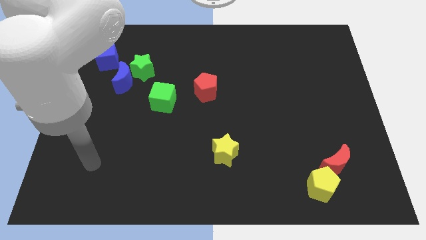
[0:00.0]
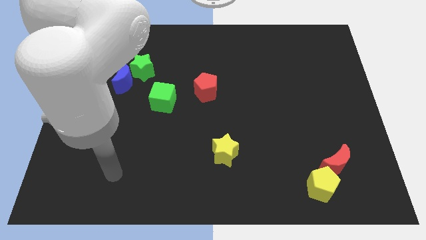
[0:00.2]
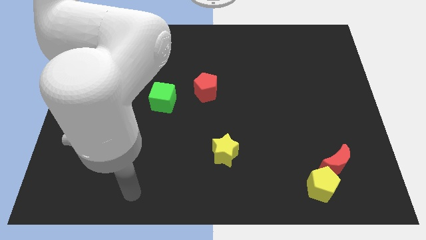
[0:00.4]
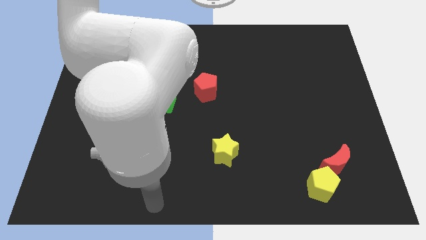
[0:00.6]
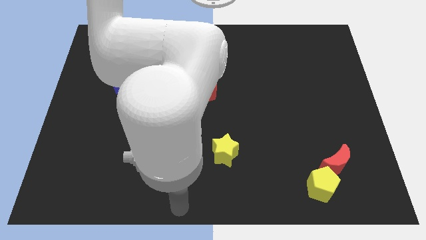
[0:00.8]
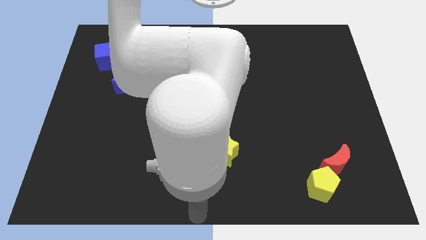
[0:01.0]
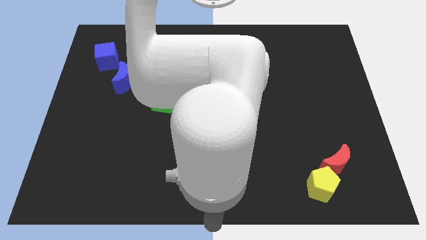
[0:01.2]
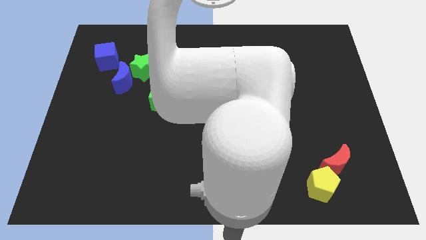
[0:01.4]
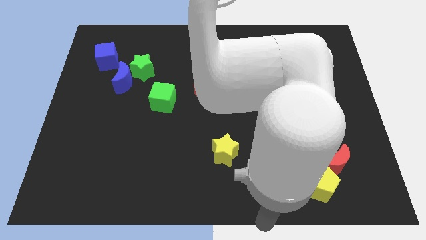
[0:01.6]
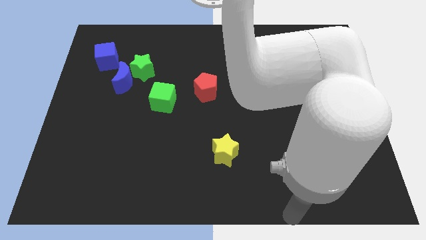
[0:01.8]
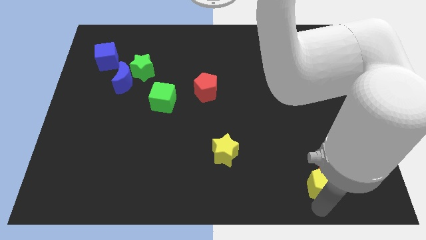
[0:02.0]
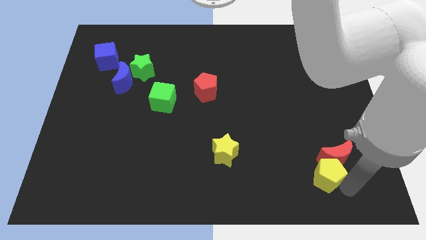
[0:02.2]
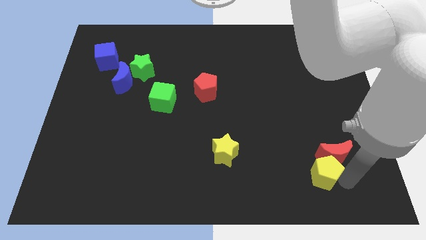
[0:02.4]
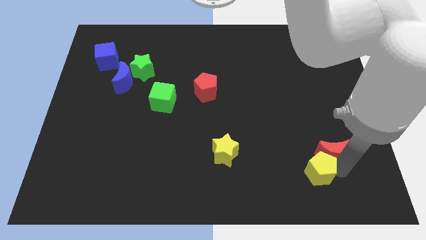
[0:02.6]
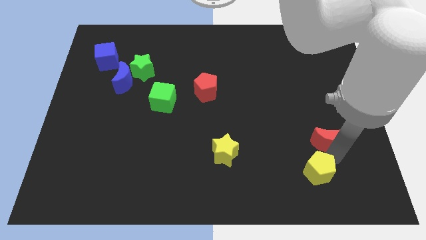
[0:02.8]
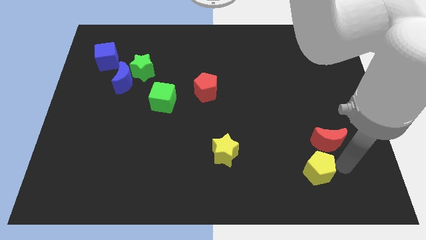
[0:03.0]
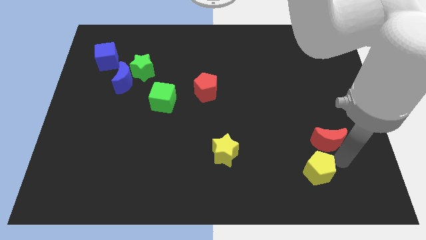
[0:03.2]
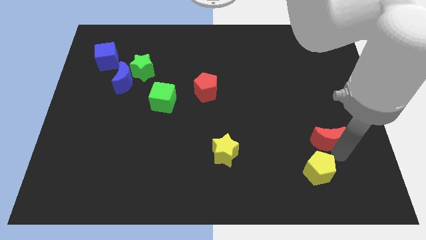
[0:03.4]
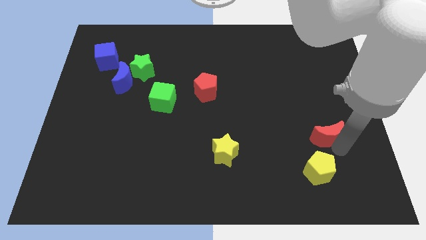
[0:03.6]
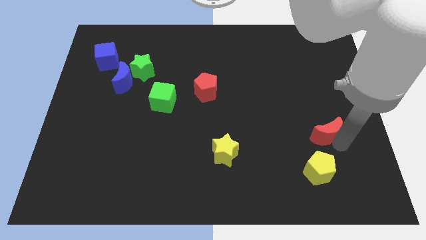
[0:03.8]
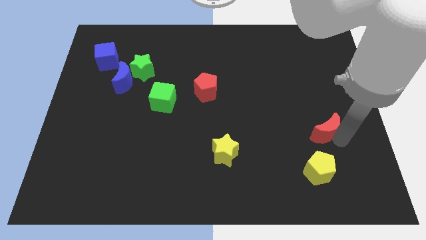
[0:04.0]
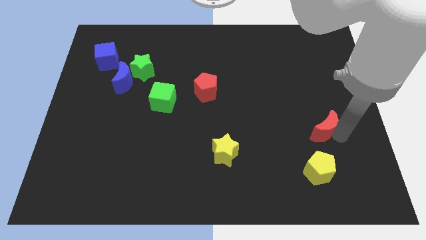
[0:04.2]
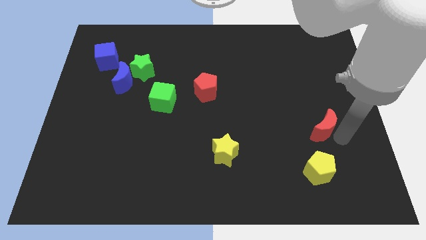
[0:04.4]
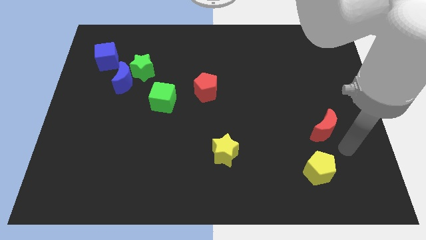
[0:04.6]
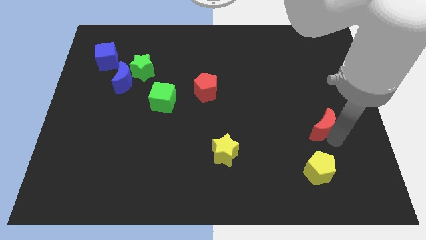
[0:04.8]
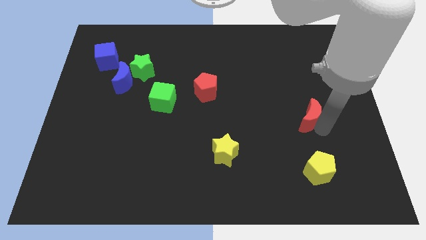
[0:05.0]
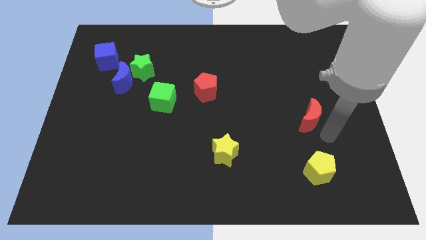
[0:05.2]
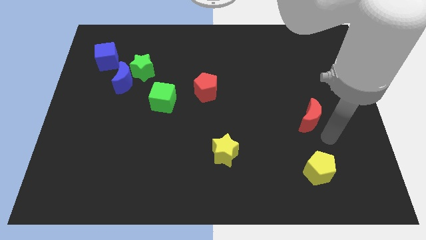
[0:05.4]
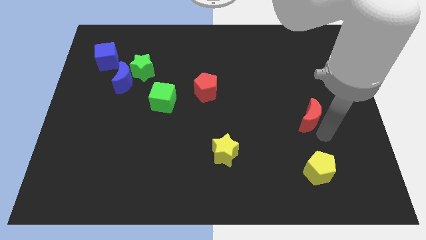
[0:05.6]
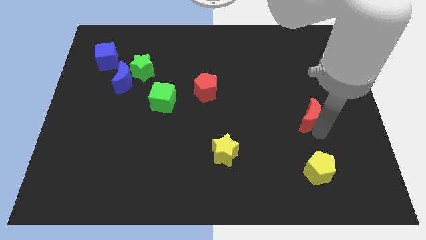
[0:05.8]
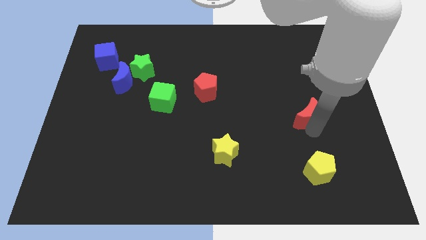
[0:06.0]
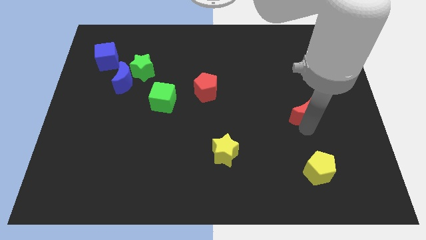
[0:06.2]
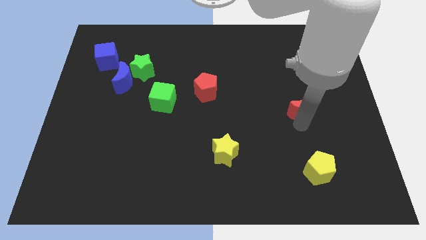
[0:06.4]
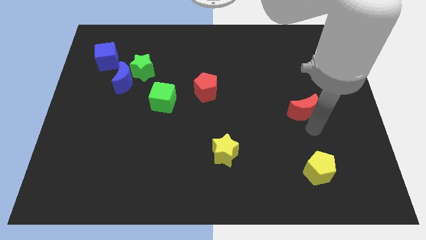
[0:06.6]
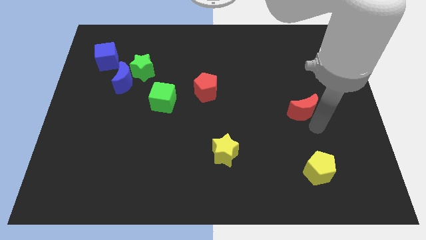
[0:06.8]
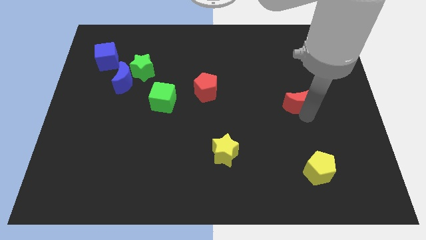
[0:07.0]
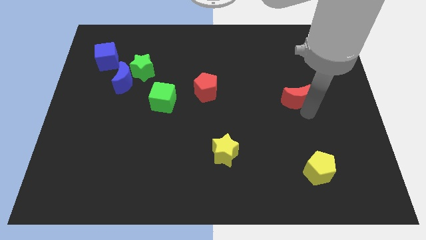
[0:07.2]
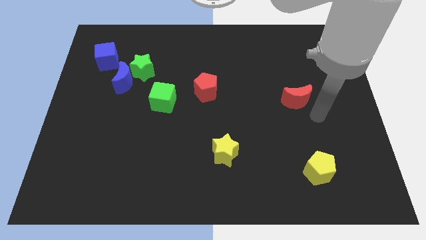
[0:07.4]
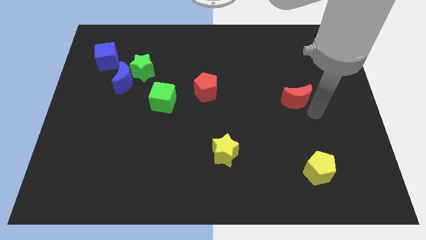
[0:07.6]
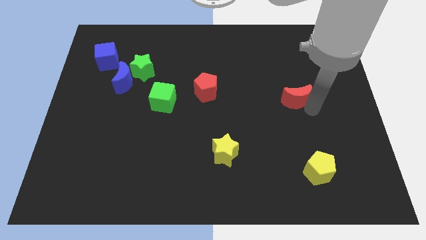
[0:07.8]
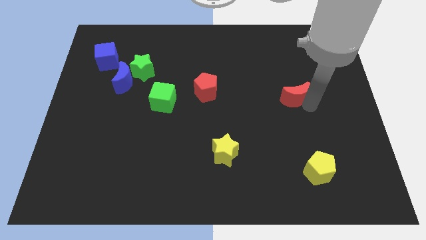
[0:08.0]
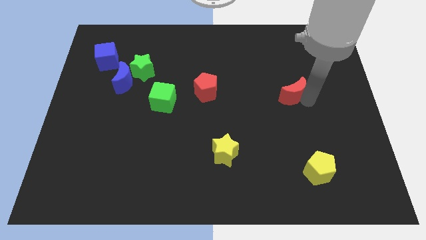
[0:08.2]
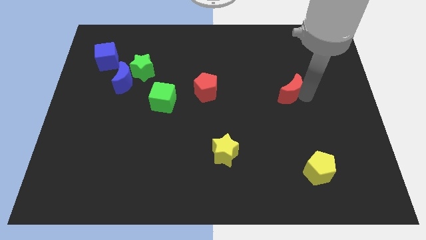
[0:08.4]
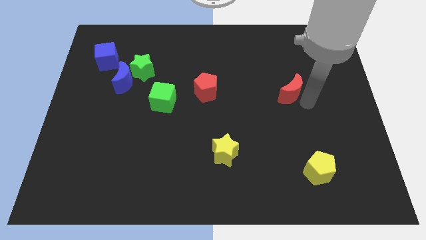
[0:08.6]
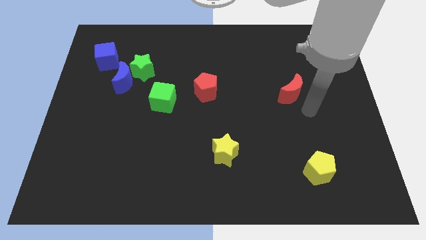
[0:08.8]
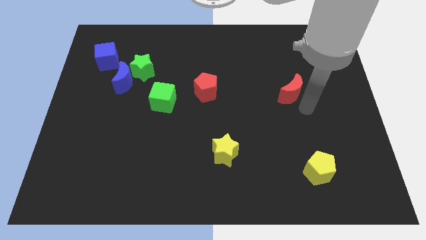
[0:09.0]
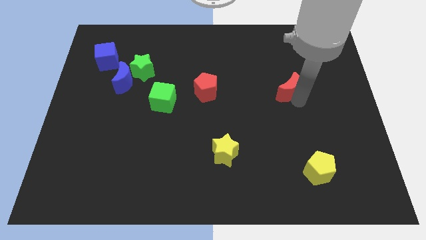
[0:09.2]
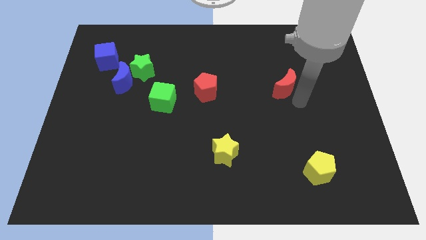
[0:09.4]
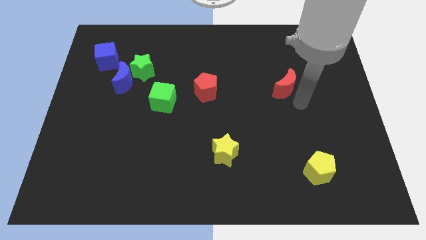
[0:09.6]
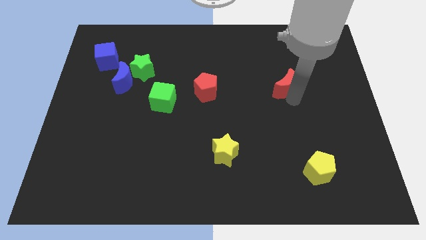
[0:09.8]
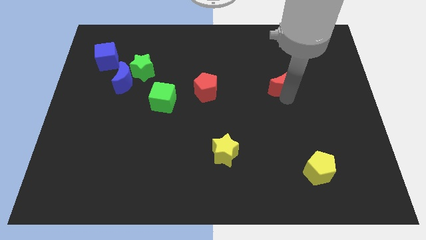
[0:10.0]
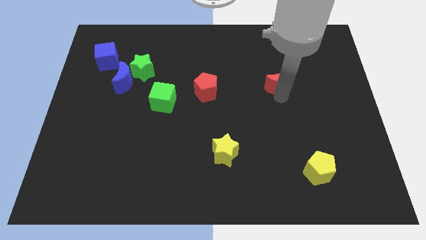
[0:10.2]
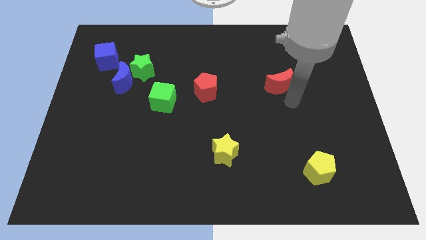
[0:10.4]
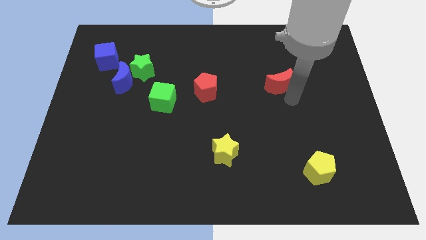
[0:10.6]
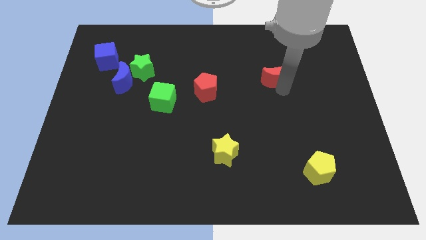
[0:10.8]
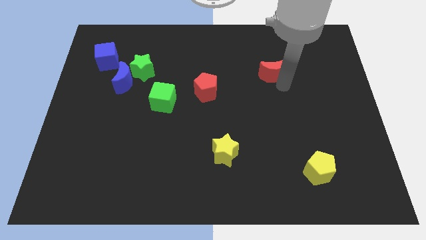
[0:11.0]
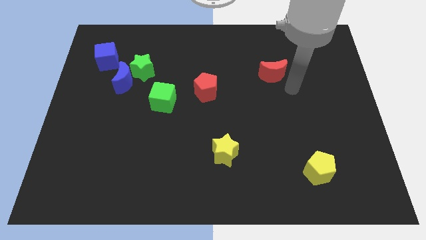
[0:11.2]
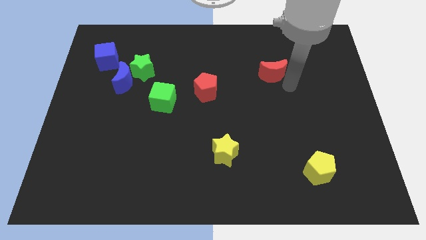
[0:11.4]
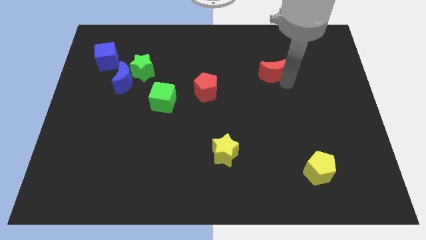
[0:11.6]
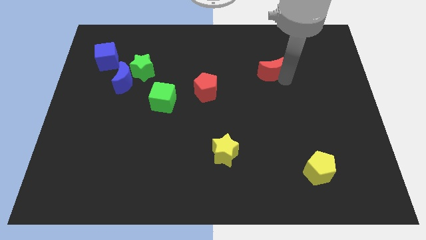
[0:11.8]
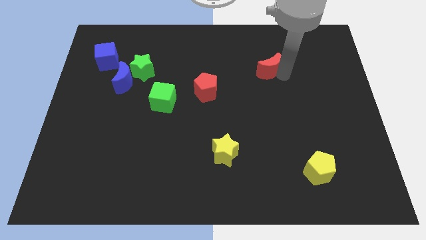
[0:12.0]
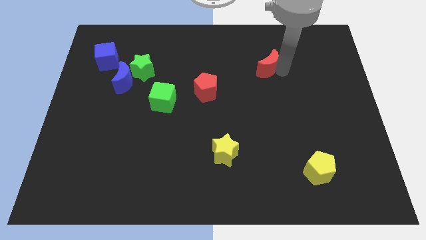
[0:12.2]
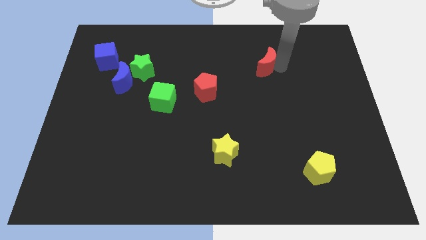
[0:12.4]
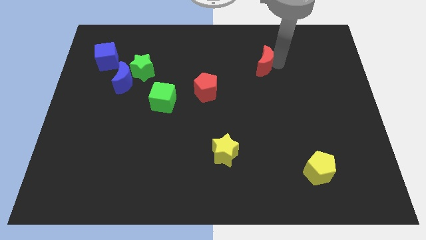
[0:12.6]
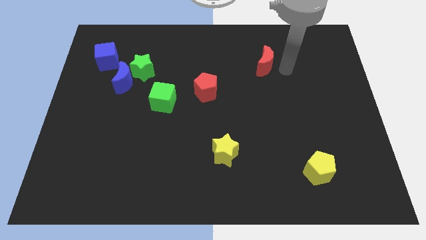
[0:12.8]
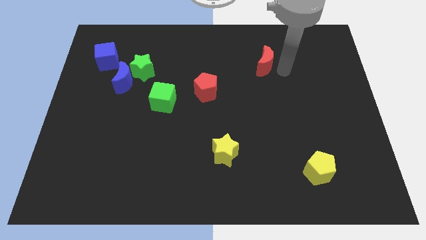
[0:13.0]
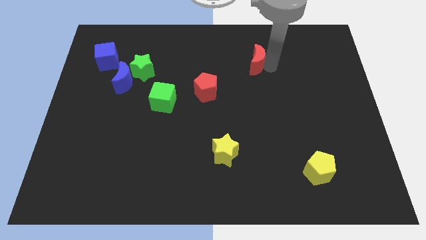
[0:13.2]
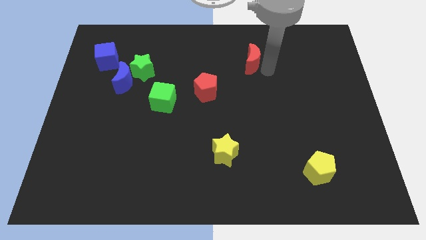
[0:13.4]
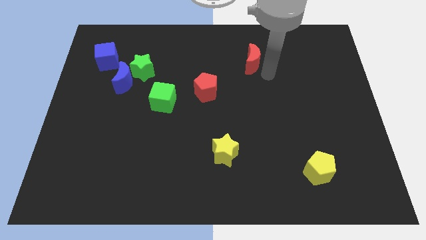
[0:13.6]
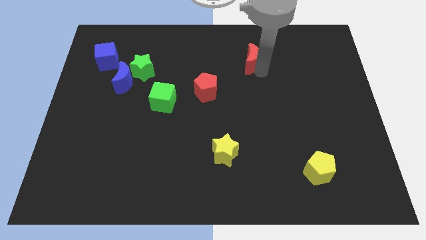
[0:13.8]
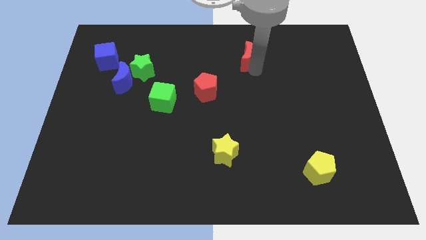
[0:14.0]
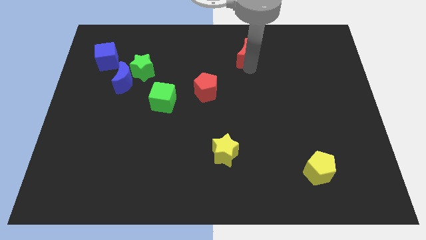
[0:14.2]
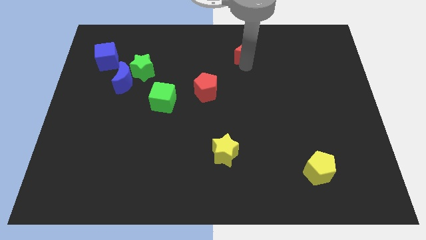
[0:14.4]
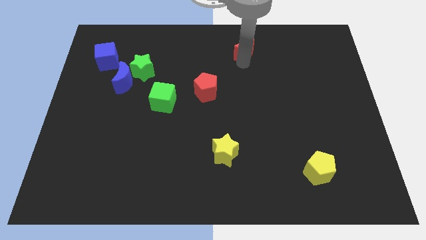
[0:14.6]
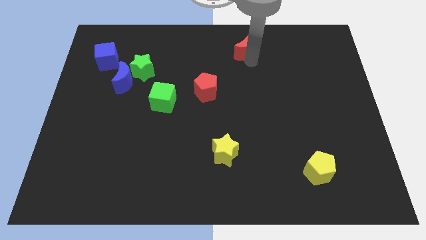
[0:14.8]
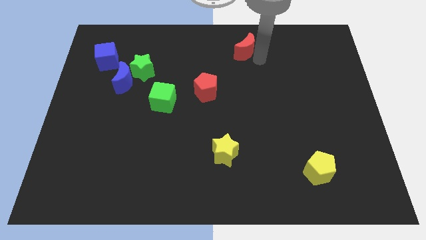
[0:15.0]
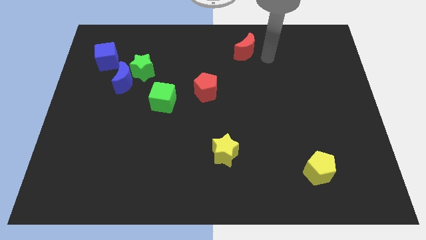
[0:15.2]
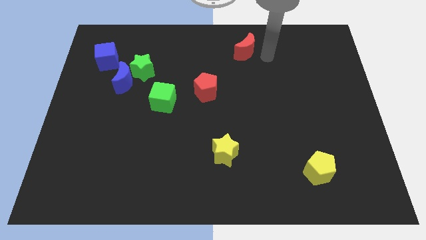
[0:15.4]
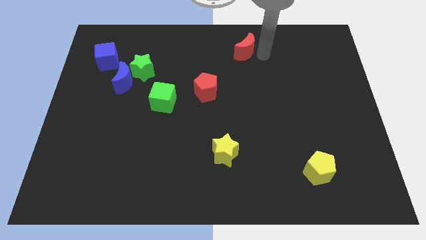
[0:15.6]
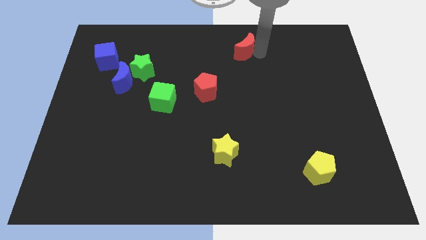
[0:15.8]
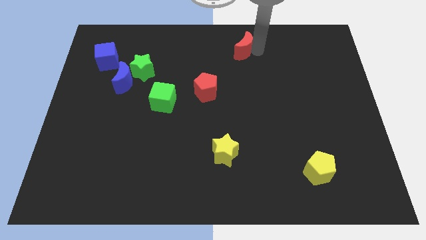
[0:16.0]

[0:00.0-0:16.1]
move the red moon to the top
